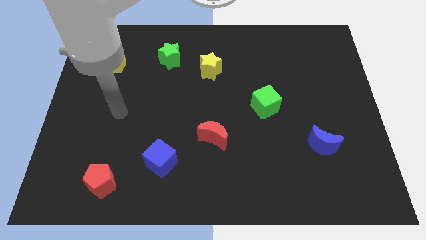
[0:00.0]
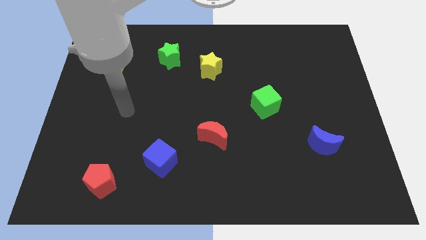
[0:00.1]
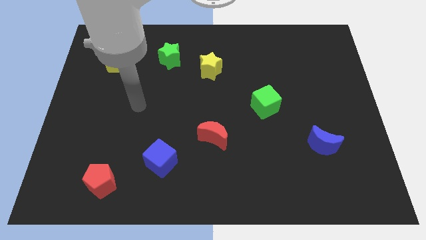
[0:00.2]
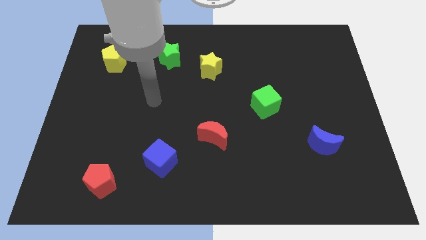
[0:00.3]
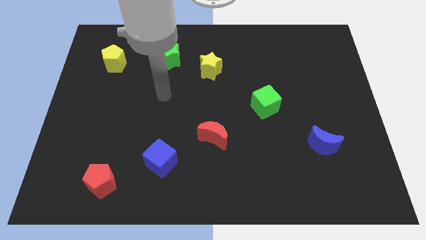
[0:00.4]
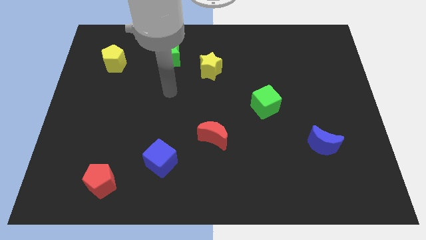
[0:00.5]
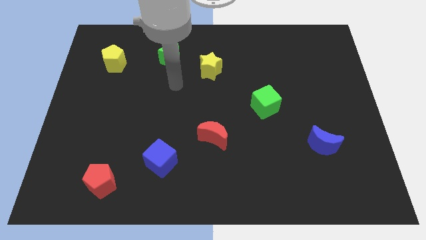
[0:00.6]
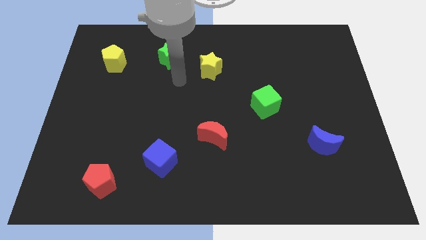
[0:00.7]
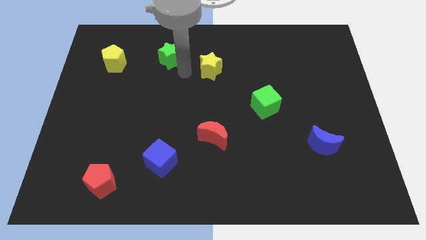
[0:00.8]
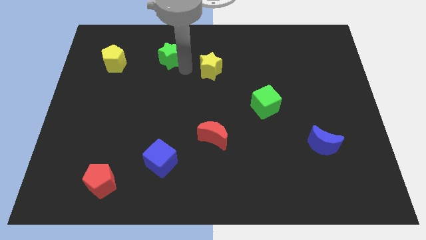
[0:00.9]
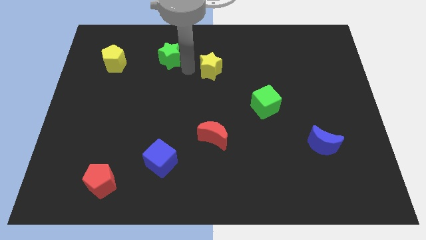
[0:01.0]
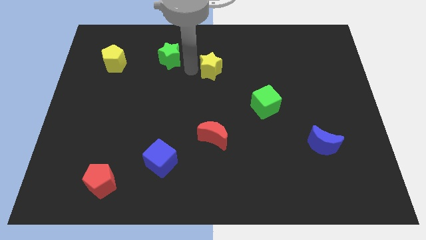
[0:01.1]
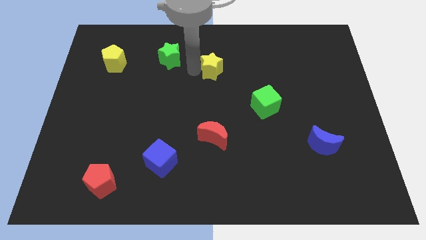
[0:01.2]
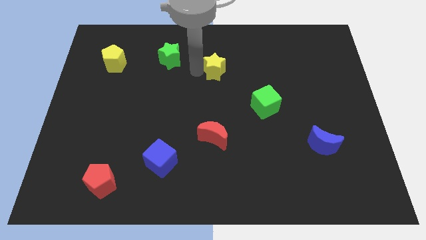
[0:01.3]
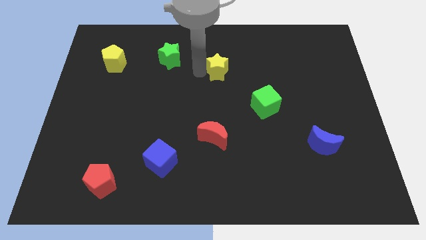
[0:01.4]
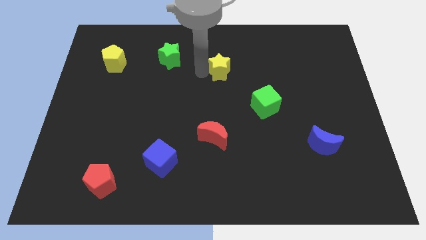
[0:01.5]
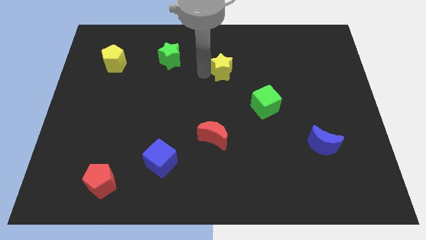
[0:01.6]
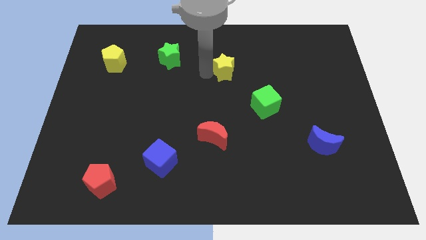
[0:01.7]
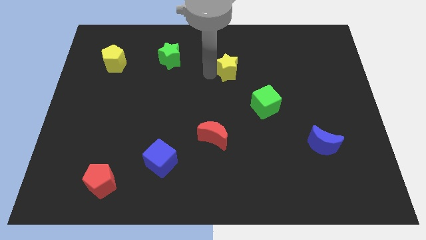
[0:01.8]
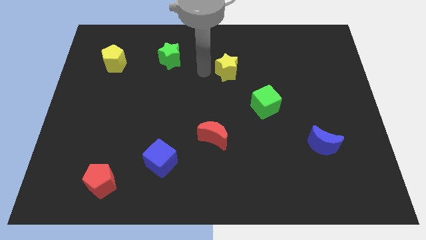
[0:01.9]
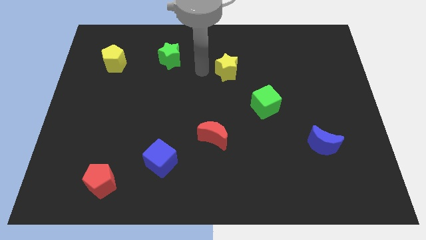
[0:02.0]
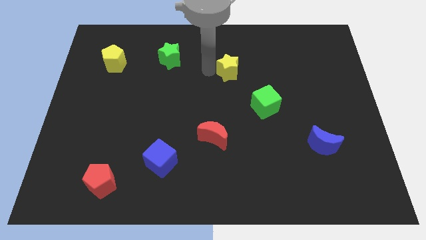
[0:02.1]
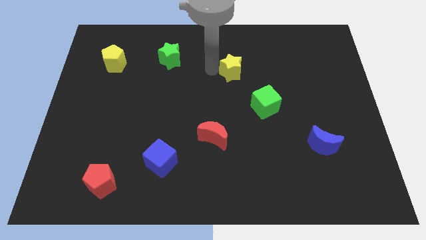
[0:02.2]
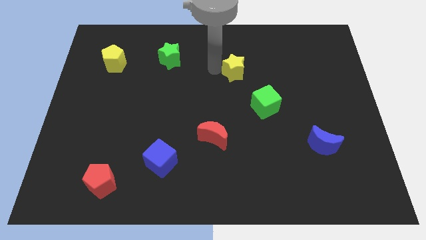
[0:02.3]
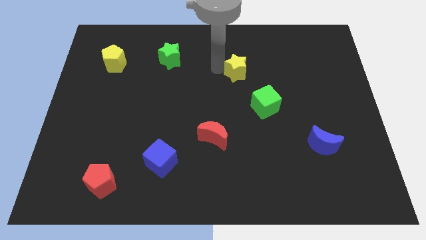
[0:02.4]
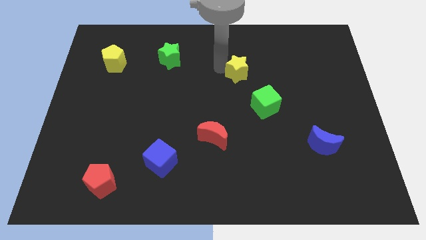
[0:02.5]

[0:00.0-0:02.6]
slide the yellow star right somewhat

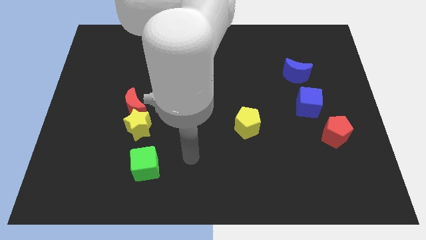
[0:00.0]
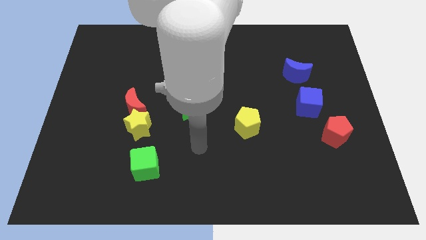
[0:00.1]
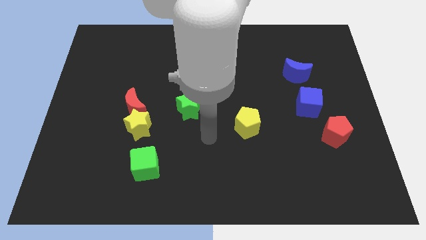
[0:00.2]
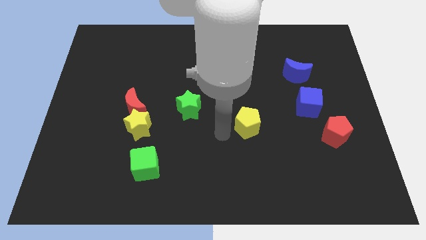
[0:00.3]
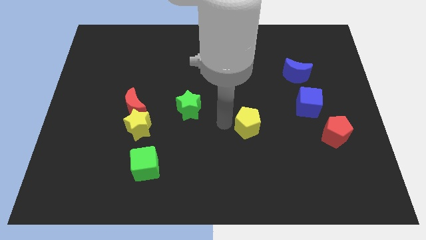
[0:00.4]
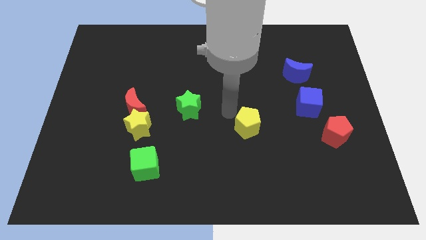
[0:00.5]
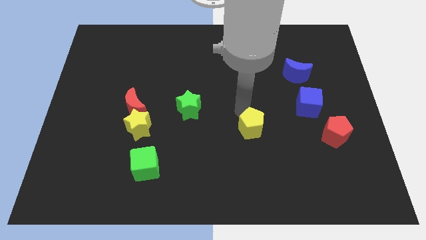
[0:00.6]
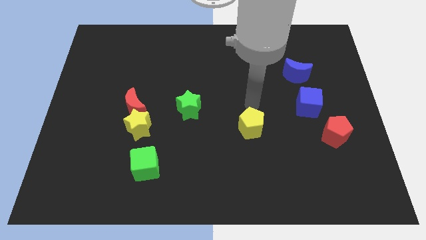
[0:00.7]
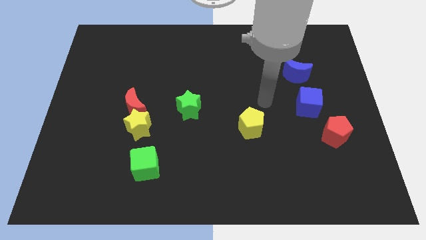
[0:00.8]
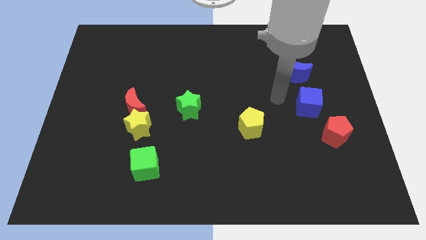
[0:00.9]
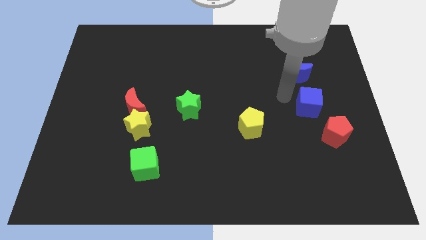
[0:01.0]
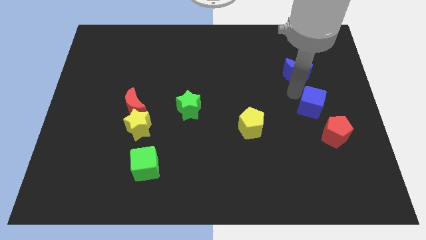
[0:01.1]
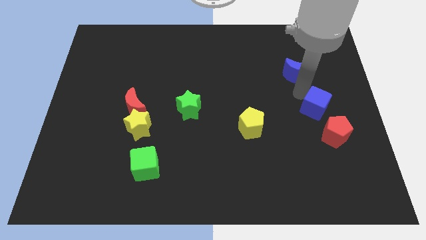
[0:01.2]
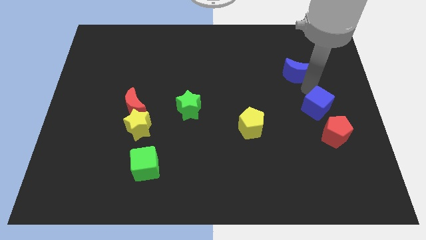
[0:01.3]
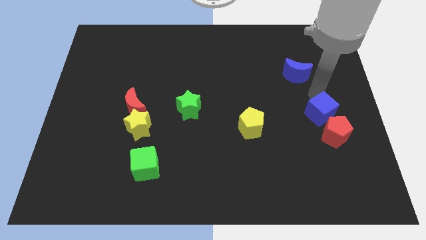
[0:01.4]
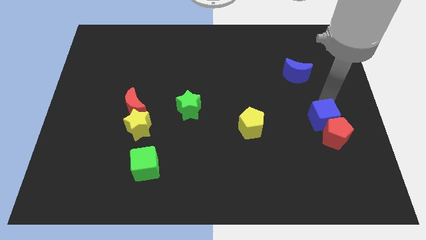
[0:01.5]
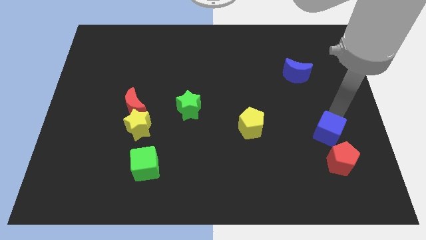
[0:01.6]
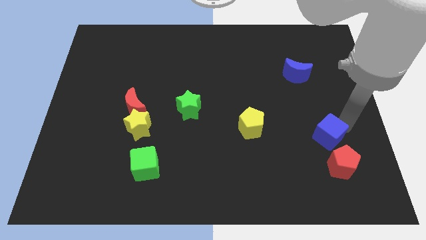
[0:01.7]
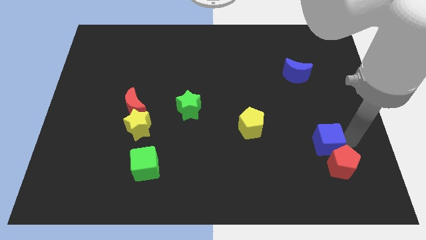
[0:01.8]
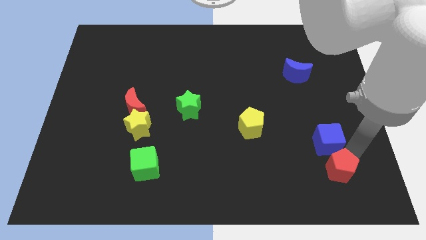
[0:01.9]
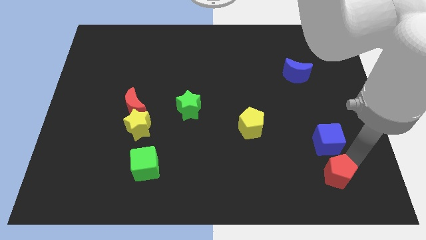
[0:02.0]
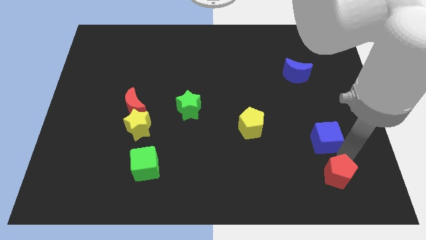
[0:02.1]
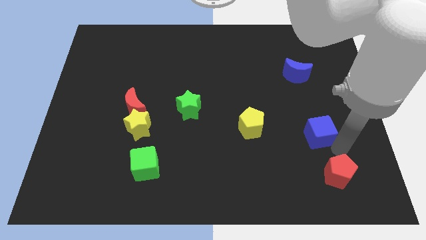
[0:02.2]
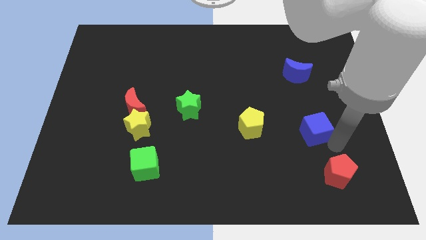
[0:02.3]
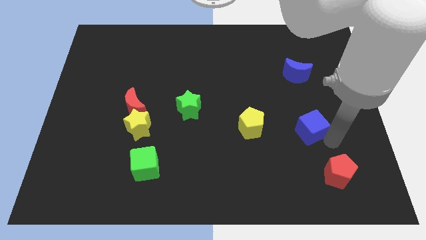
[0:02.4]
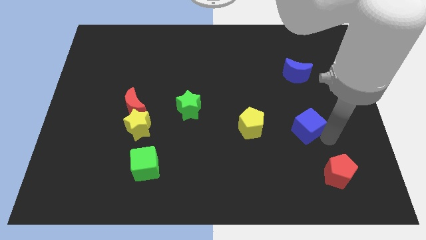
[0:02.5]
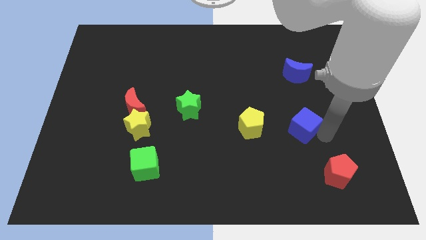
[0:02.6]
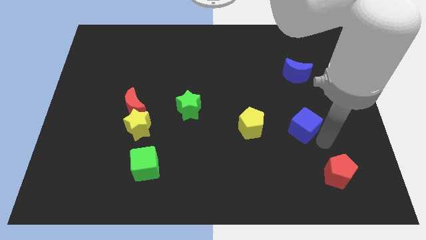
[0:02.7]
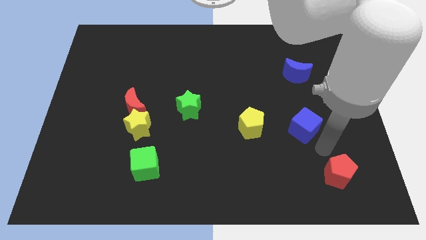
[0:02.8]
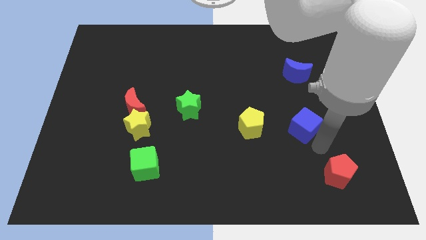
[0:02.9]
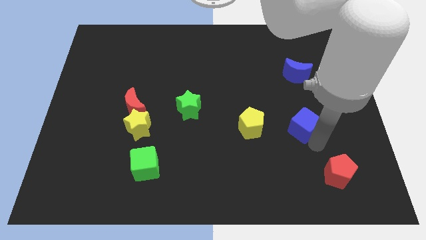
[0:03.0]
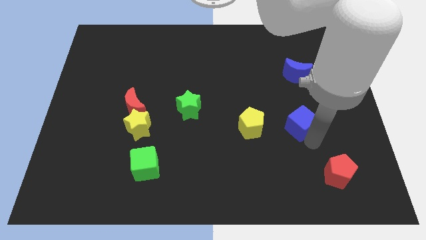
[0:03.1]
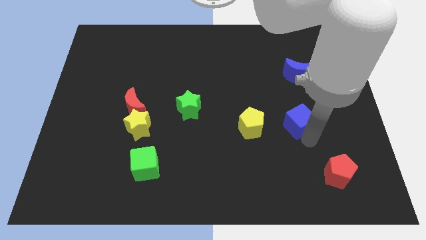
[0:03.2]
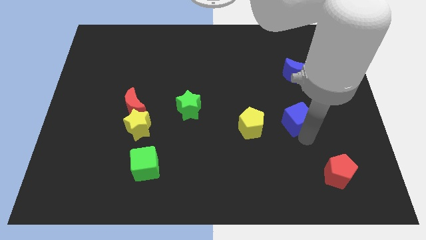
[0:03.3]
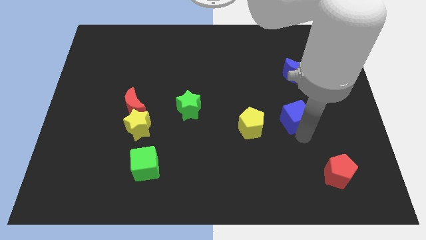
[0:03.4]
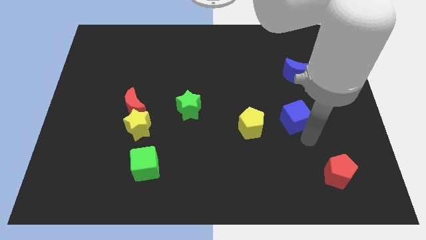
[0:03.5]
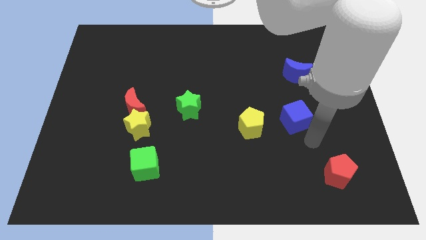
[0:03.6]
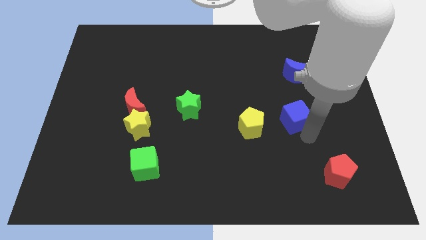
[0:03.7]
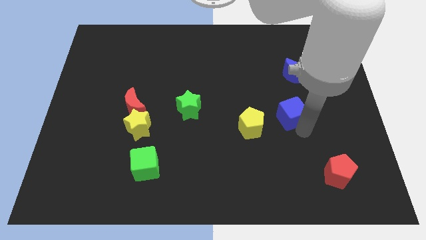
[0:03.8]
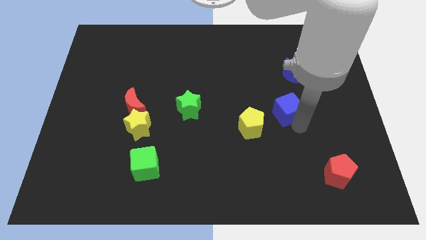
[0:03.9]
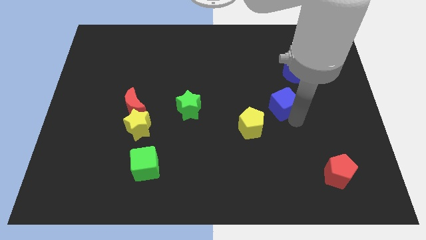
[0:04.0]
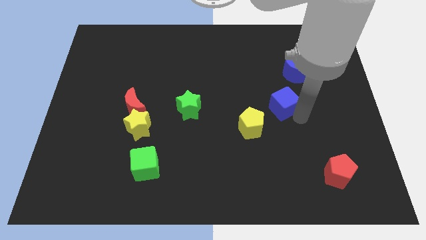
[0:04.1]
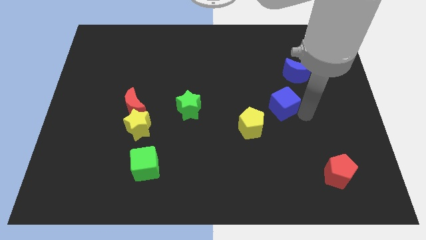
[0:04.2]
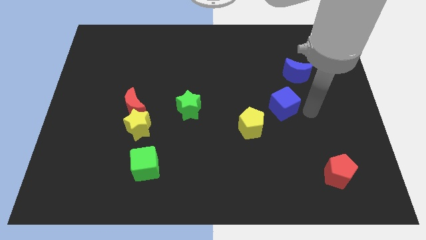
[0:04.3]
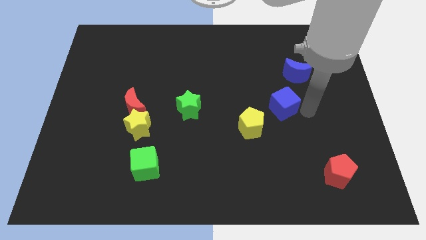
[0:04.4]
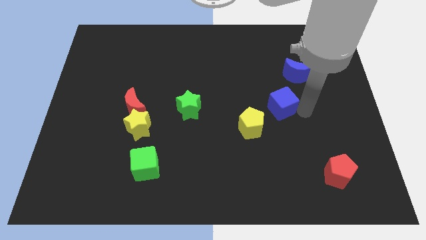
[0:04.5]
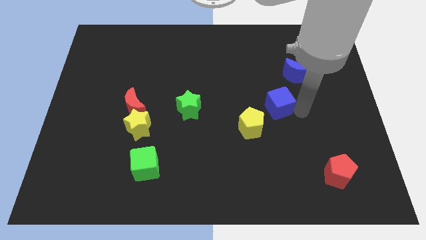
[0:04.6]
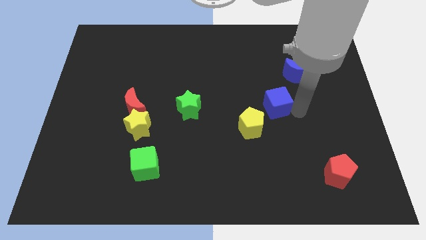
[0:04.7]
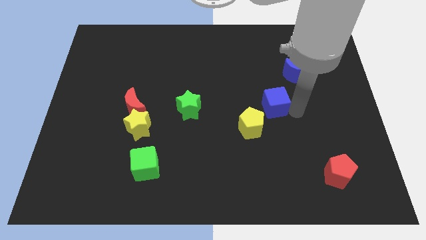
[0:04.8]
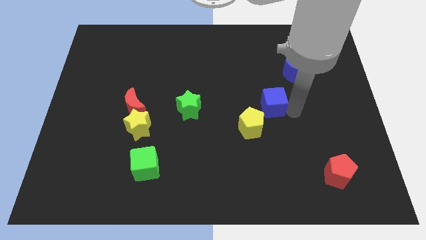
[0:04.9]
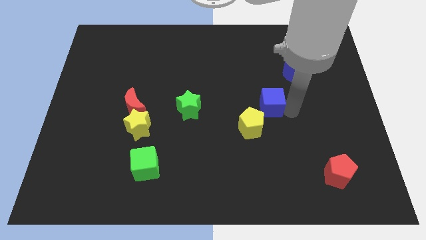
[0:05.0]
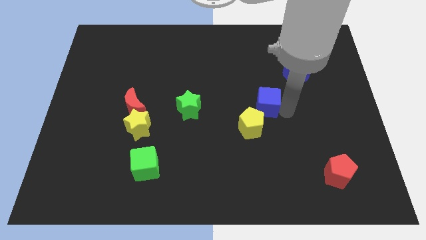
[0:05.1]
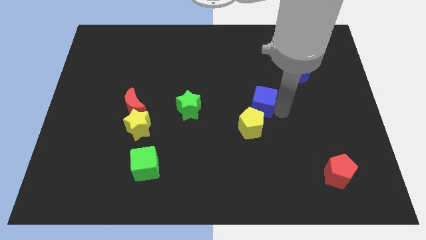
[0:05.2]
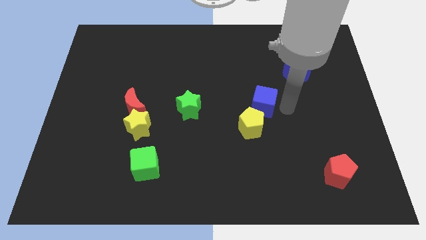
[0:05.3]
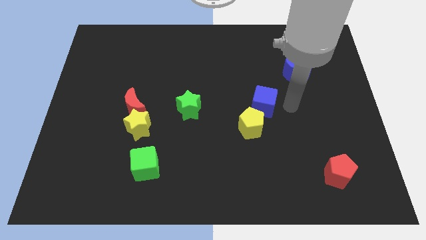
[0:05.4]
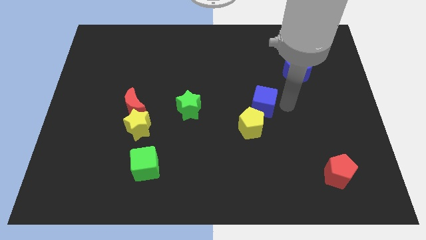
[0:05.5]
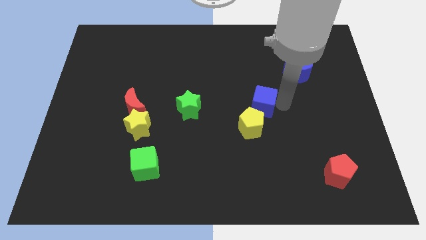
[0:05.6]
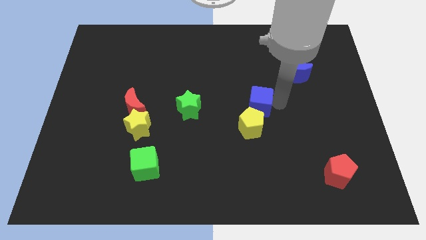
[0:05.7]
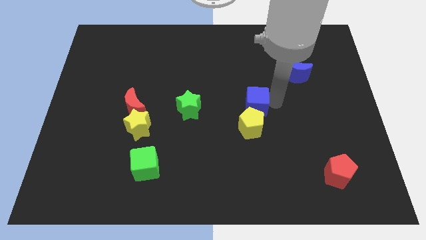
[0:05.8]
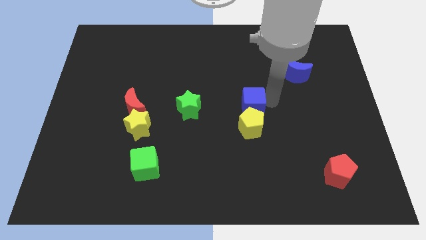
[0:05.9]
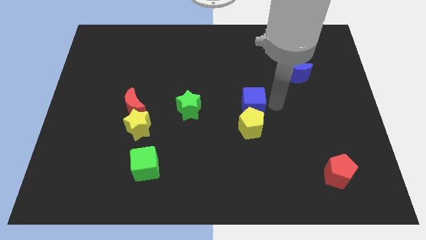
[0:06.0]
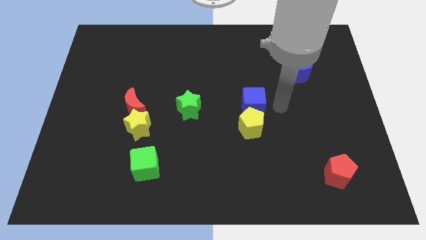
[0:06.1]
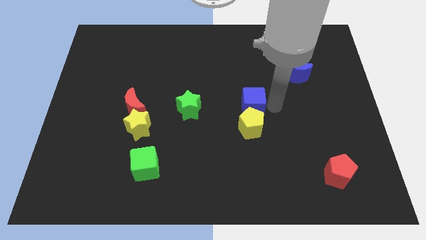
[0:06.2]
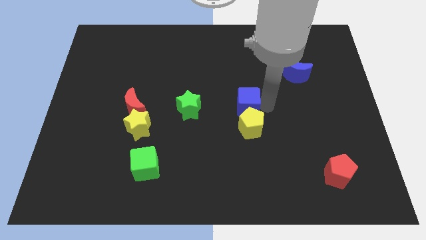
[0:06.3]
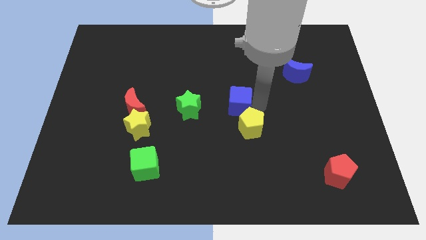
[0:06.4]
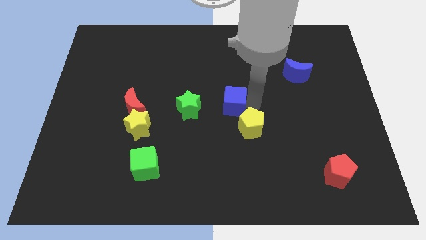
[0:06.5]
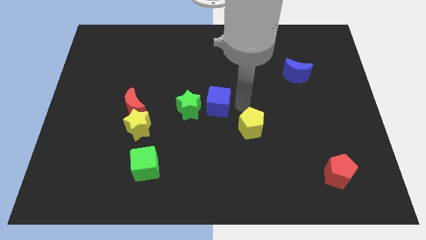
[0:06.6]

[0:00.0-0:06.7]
push the blue cube left
